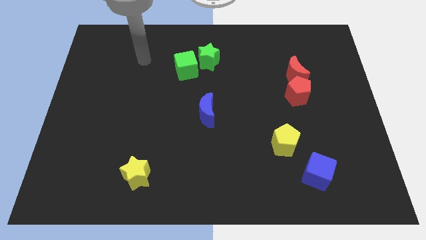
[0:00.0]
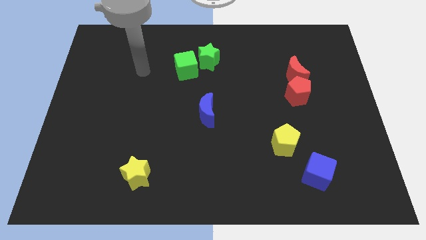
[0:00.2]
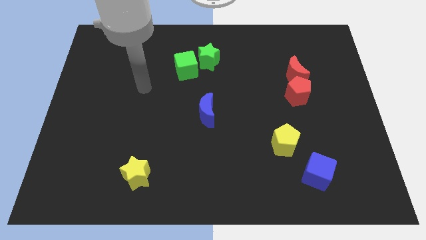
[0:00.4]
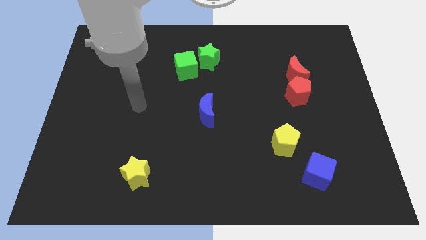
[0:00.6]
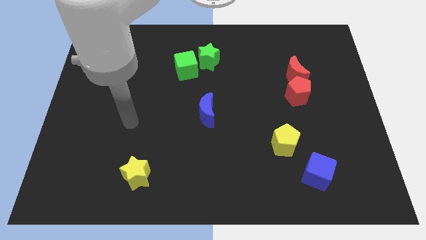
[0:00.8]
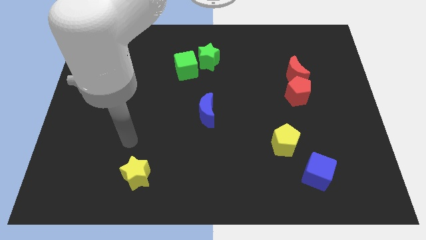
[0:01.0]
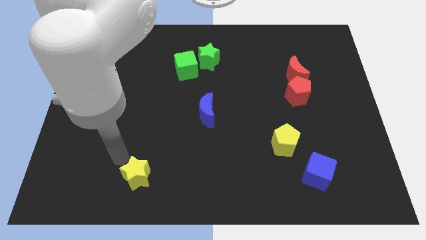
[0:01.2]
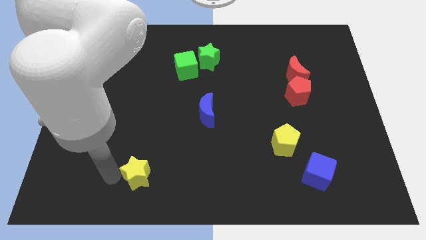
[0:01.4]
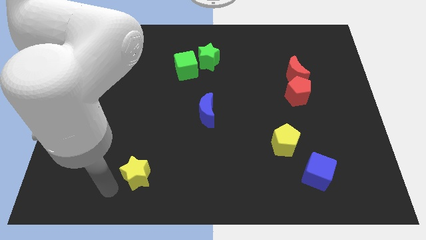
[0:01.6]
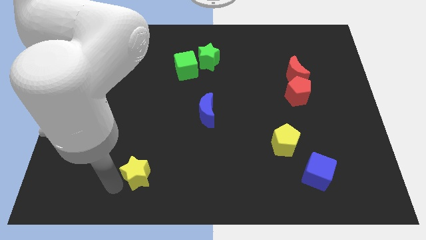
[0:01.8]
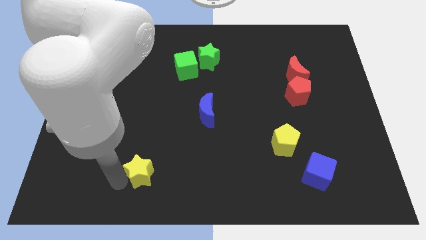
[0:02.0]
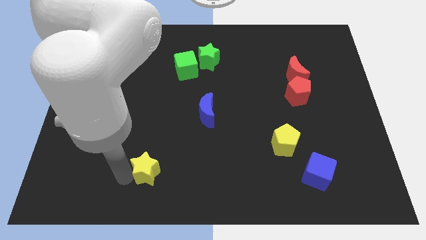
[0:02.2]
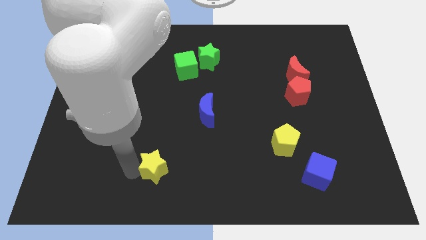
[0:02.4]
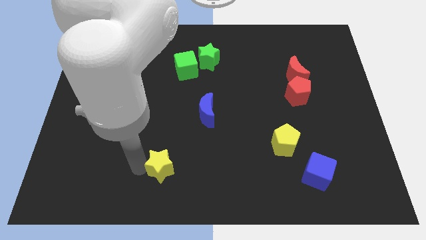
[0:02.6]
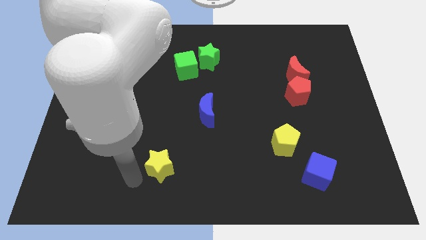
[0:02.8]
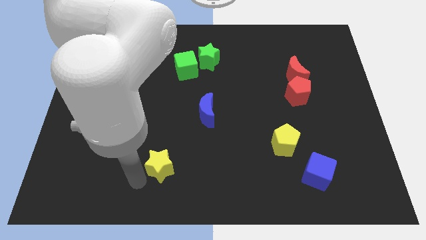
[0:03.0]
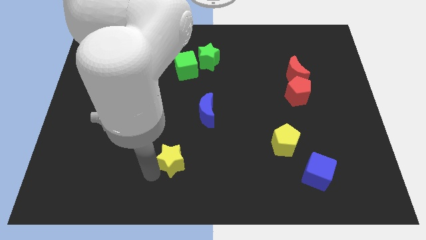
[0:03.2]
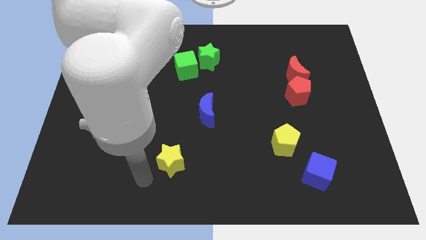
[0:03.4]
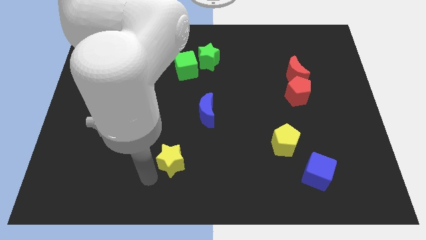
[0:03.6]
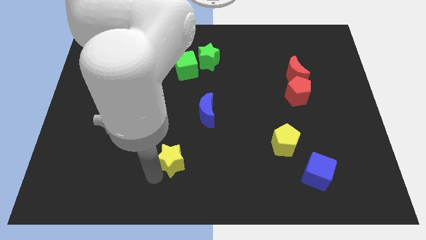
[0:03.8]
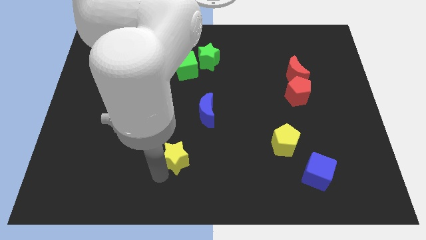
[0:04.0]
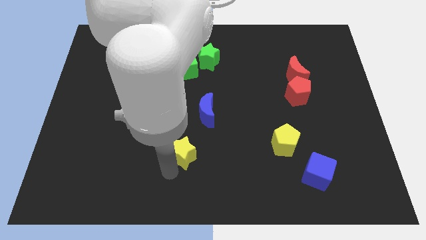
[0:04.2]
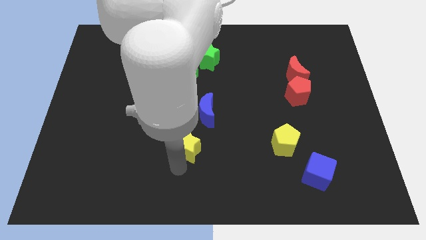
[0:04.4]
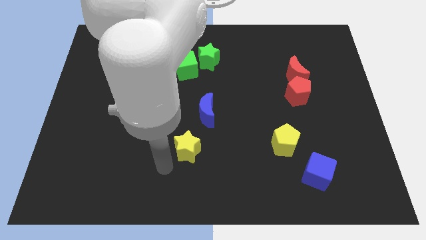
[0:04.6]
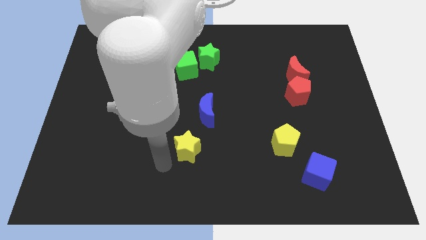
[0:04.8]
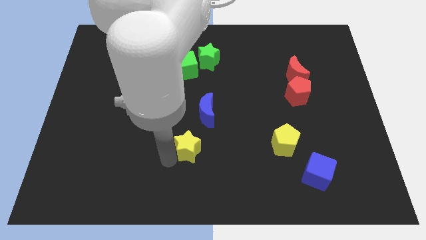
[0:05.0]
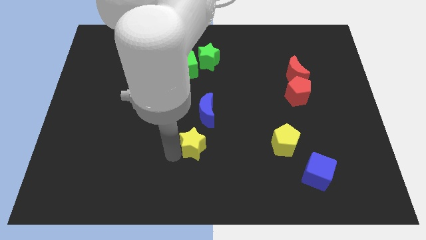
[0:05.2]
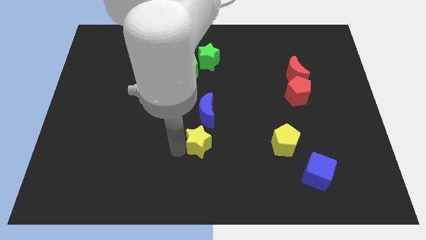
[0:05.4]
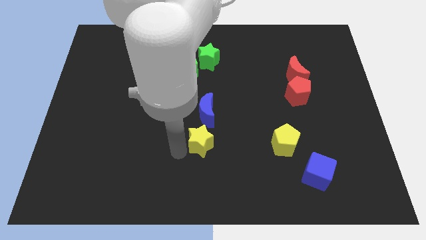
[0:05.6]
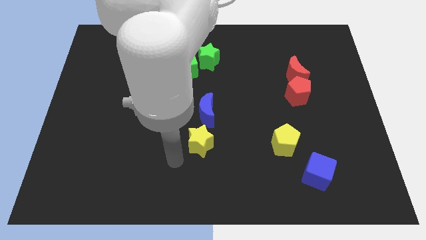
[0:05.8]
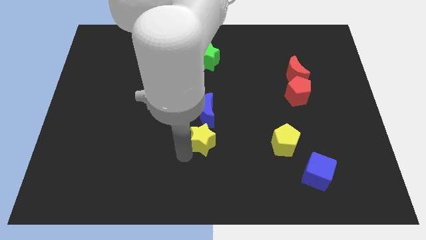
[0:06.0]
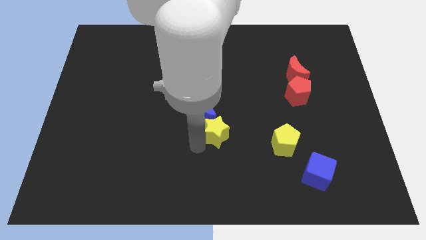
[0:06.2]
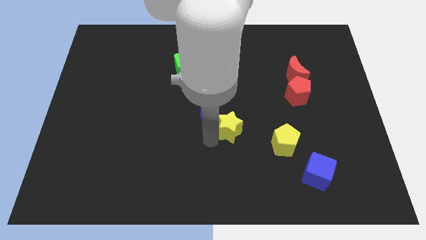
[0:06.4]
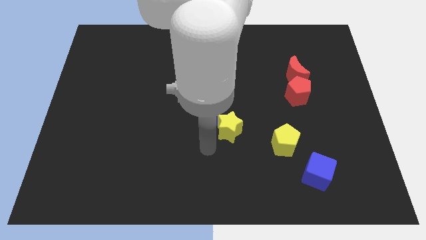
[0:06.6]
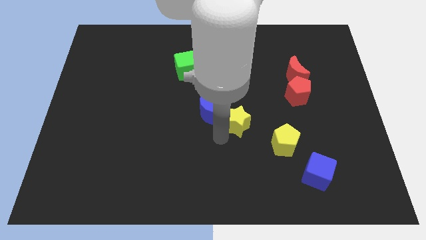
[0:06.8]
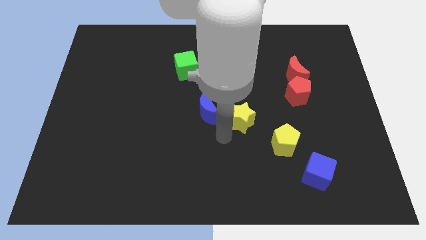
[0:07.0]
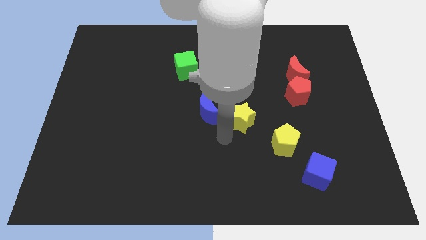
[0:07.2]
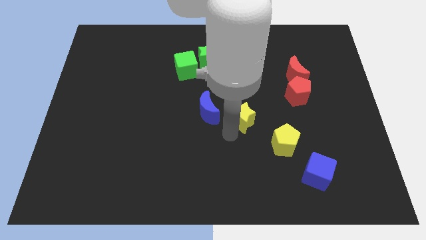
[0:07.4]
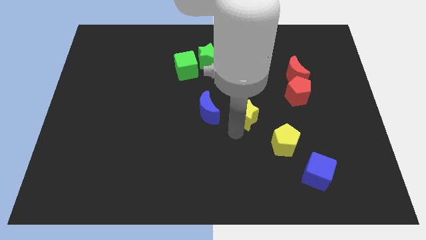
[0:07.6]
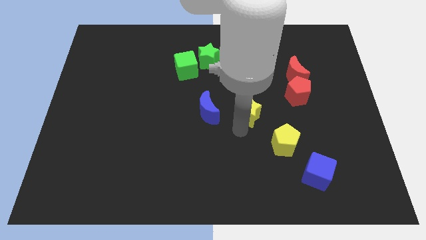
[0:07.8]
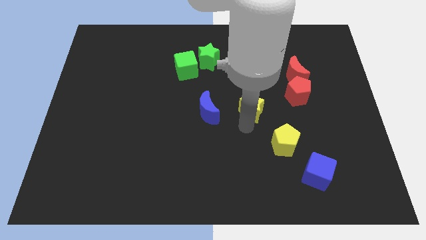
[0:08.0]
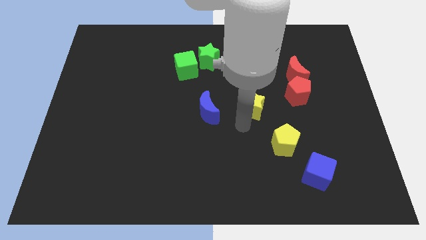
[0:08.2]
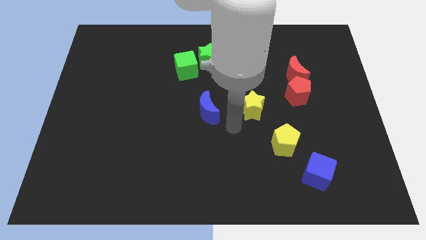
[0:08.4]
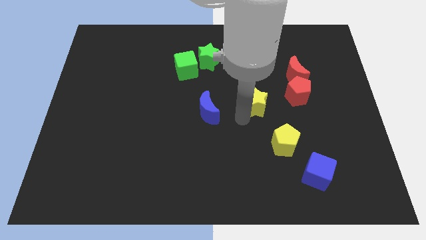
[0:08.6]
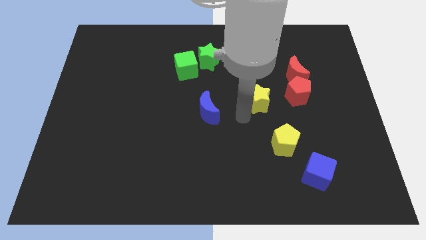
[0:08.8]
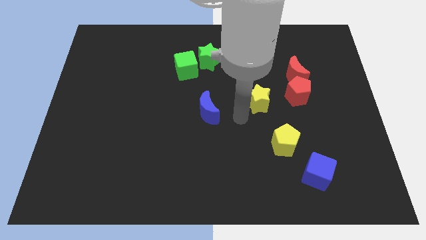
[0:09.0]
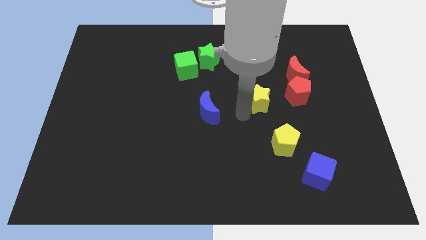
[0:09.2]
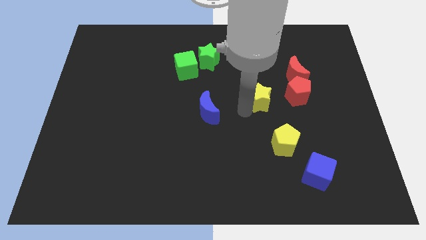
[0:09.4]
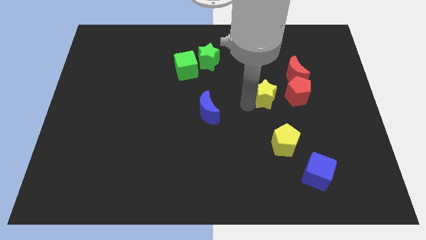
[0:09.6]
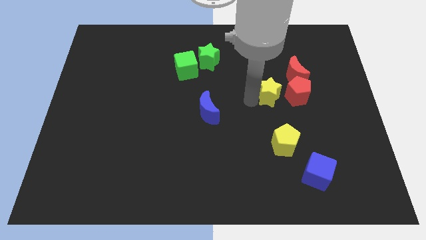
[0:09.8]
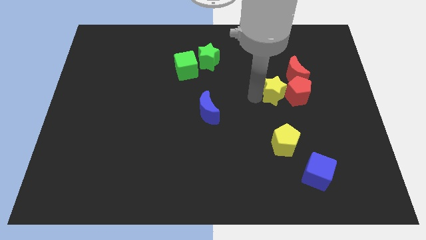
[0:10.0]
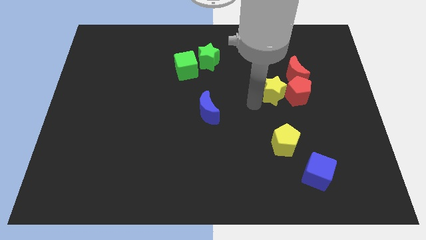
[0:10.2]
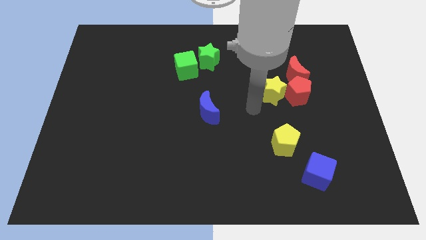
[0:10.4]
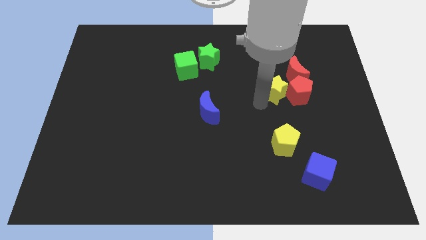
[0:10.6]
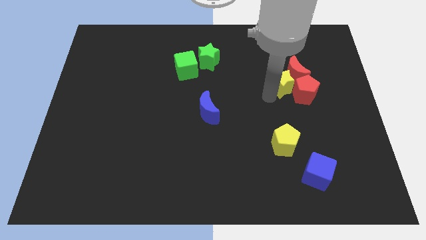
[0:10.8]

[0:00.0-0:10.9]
slide the yellow star to the red moon

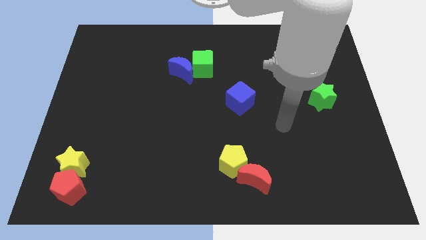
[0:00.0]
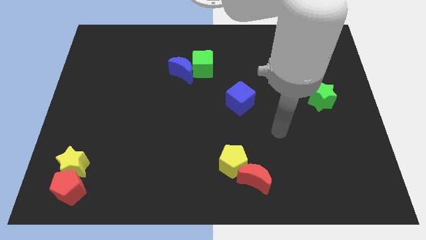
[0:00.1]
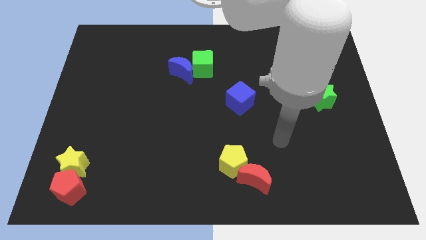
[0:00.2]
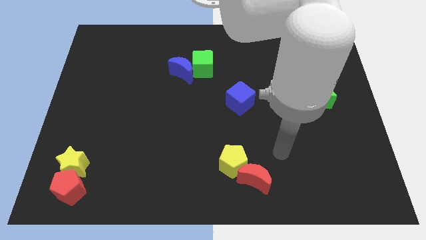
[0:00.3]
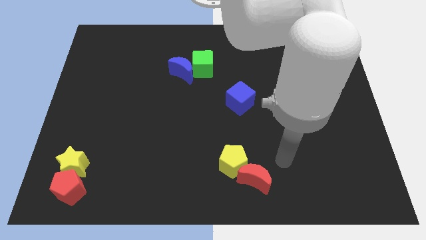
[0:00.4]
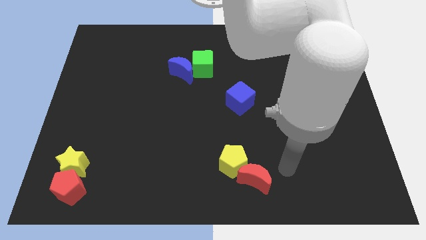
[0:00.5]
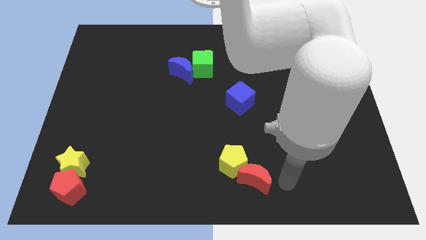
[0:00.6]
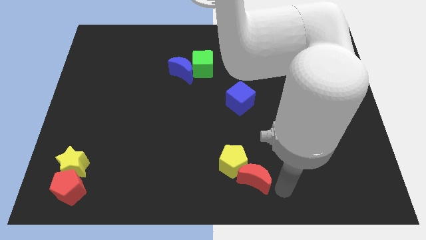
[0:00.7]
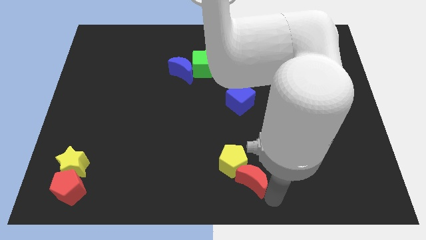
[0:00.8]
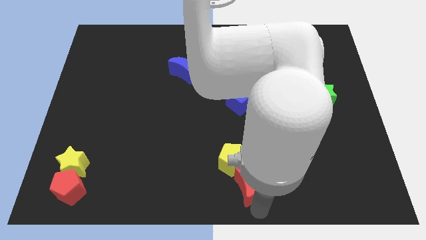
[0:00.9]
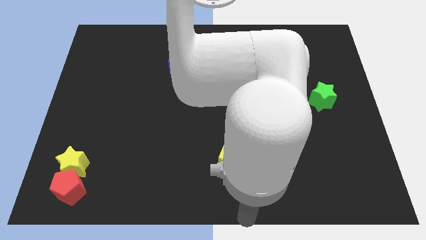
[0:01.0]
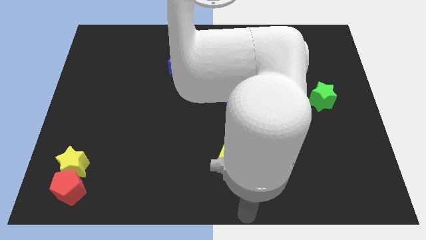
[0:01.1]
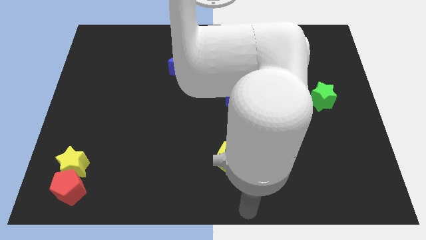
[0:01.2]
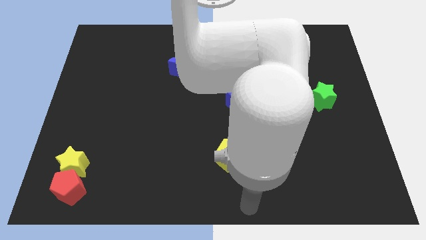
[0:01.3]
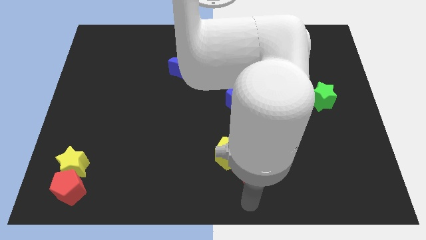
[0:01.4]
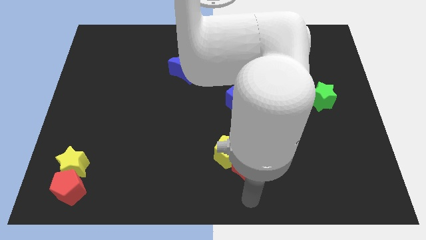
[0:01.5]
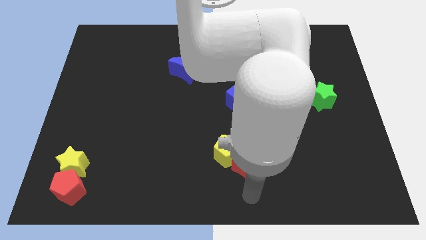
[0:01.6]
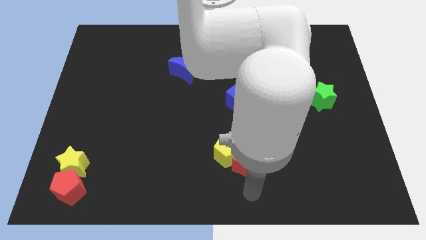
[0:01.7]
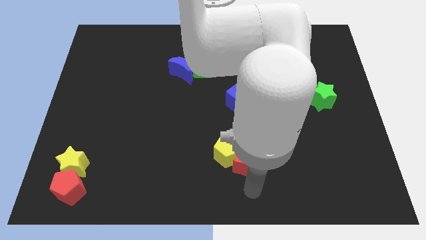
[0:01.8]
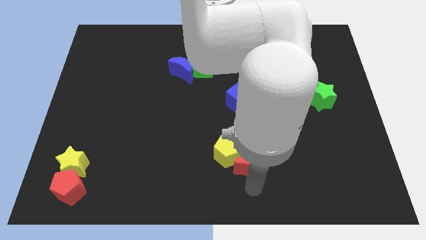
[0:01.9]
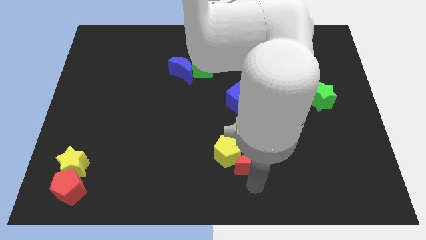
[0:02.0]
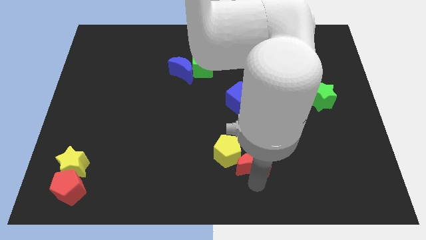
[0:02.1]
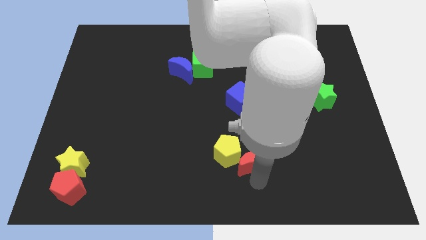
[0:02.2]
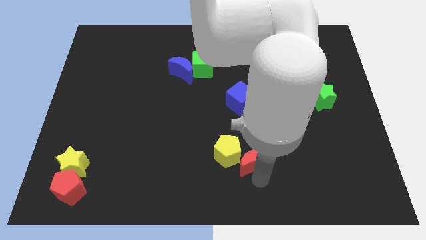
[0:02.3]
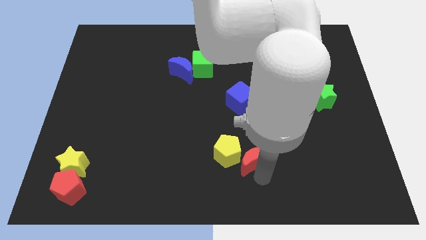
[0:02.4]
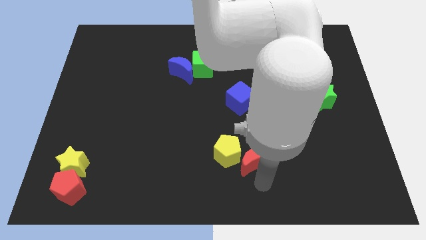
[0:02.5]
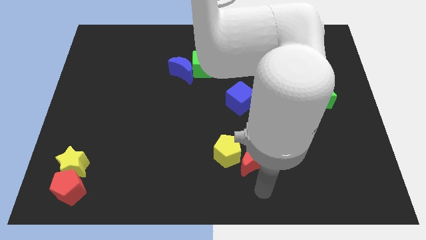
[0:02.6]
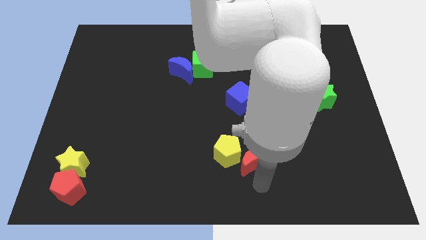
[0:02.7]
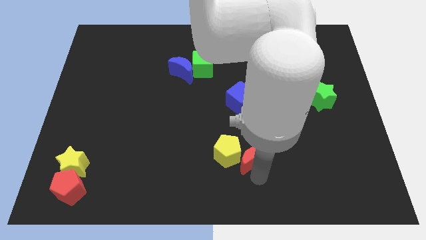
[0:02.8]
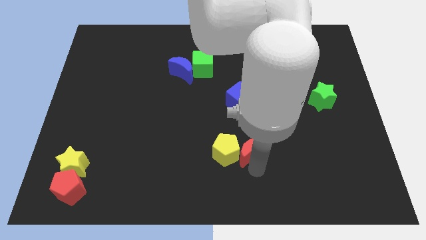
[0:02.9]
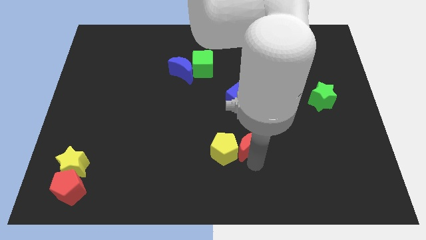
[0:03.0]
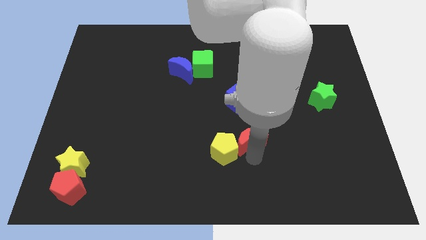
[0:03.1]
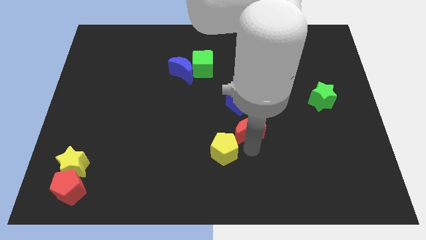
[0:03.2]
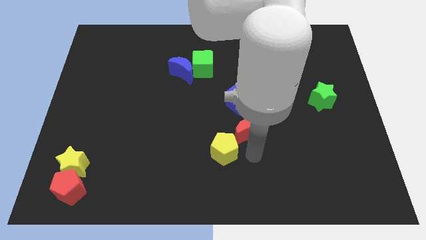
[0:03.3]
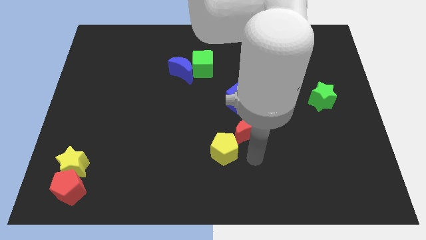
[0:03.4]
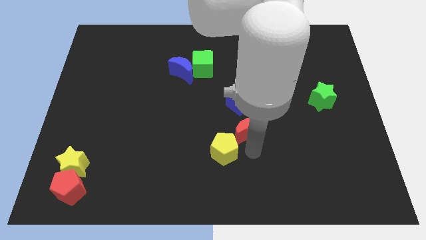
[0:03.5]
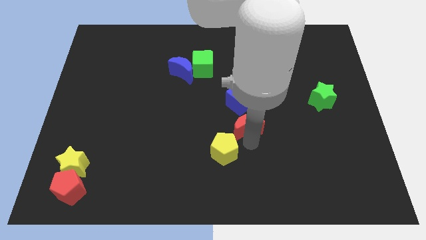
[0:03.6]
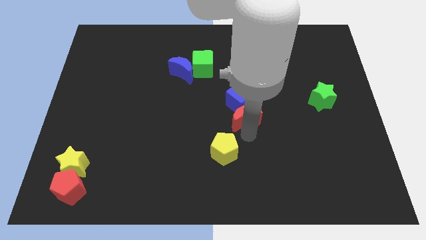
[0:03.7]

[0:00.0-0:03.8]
put the red moon close to the blue cube
